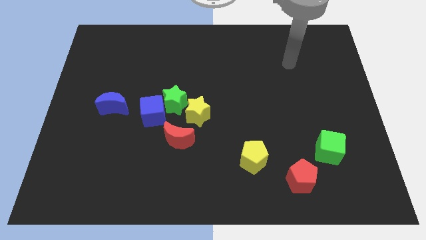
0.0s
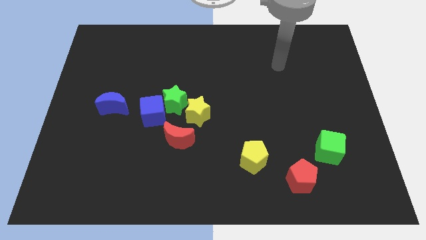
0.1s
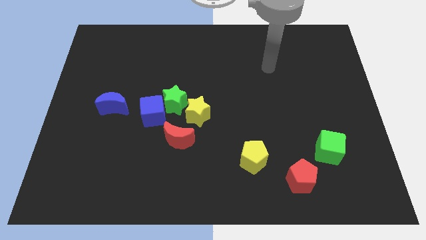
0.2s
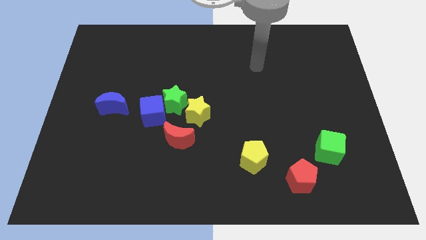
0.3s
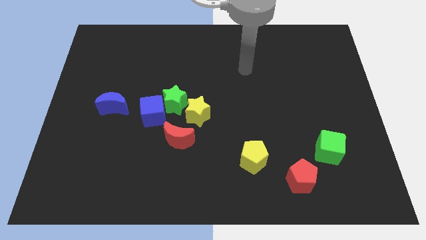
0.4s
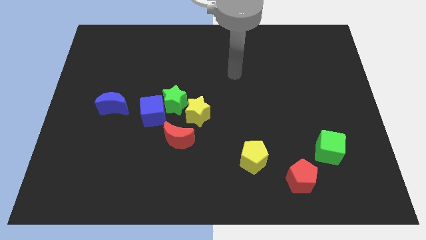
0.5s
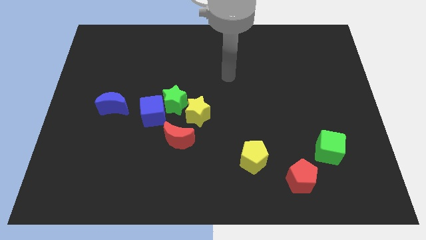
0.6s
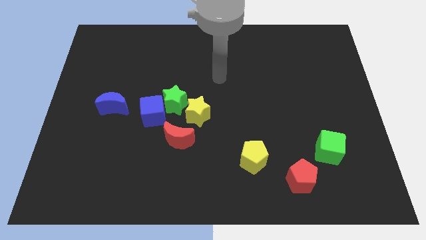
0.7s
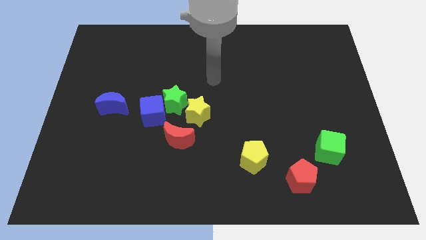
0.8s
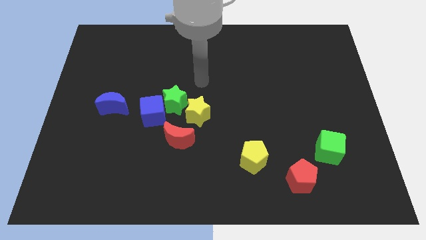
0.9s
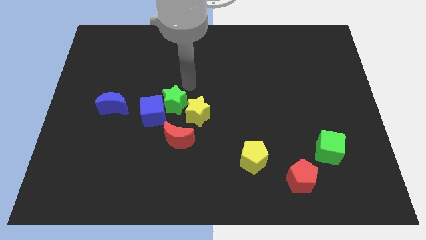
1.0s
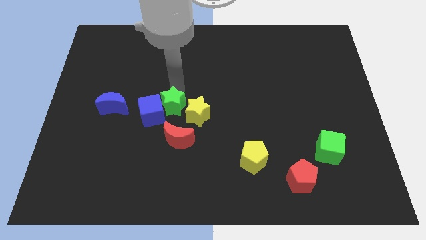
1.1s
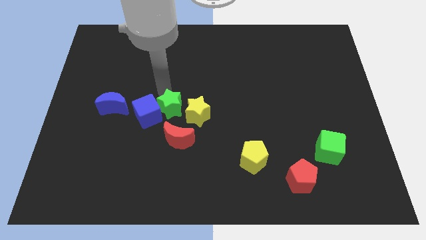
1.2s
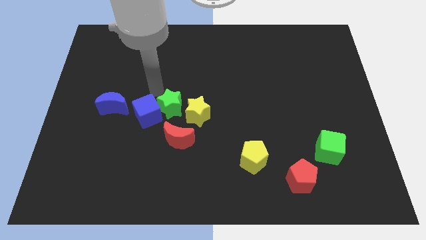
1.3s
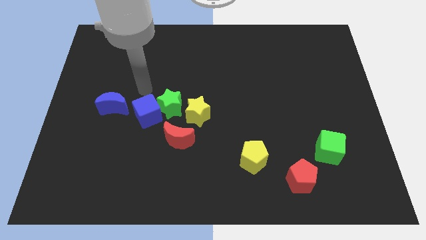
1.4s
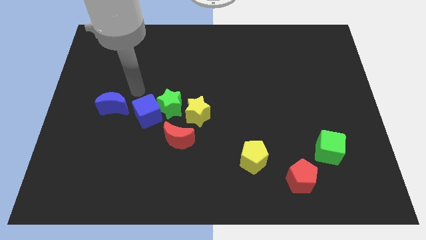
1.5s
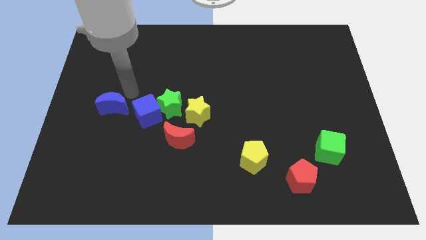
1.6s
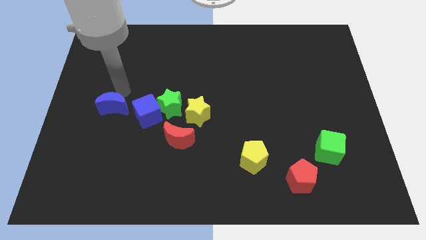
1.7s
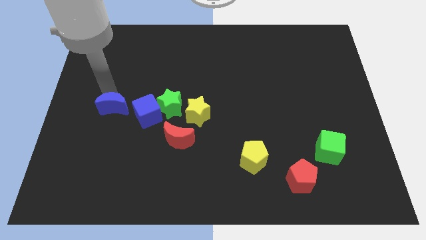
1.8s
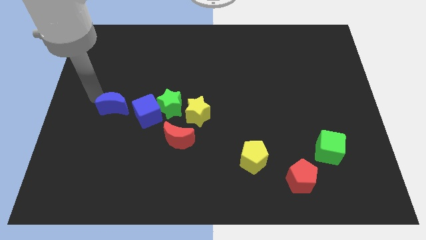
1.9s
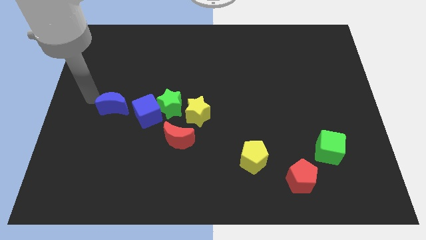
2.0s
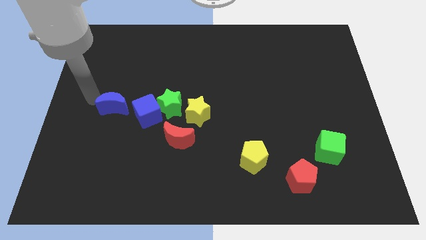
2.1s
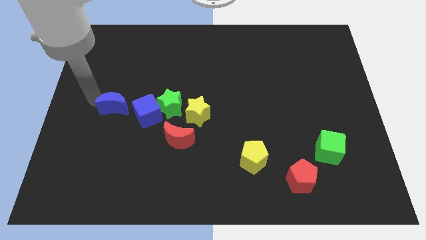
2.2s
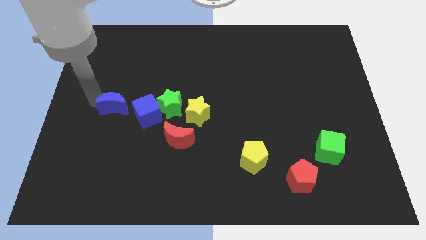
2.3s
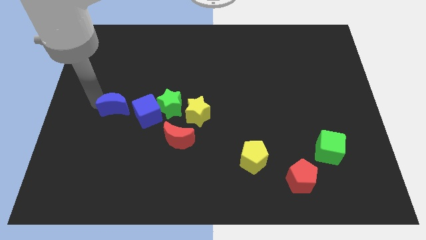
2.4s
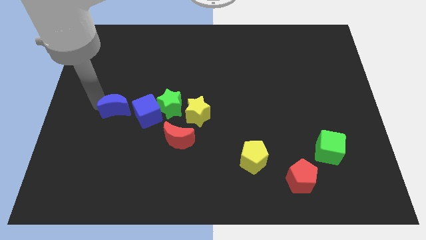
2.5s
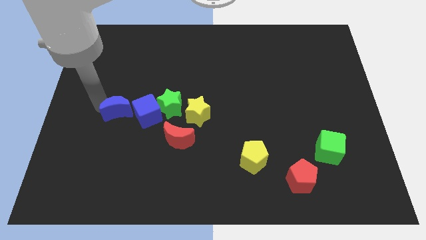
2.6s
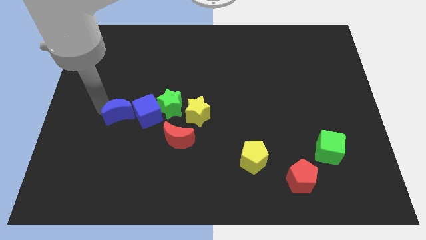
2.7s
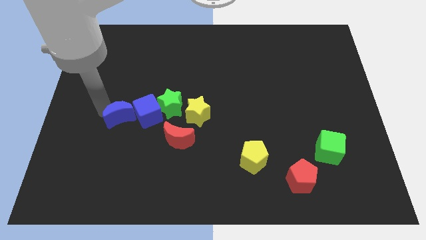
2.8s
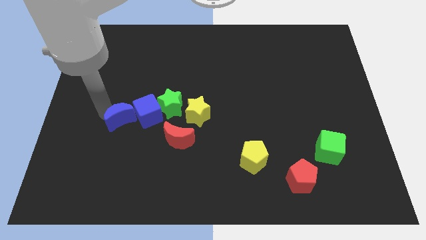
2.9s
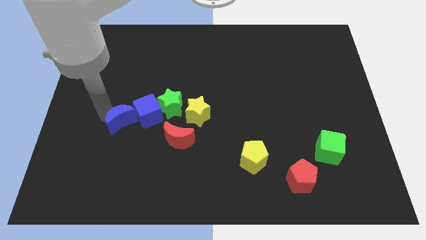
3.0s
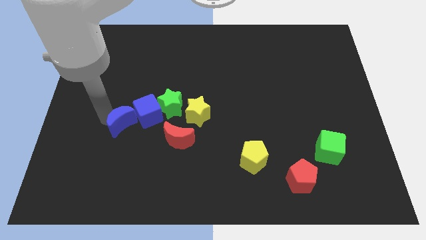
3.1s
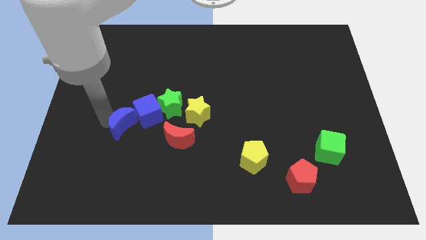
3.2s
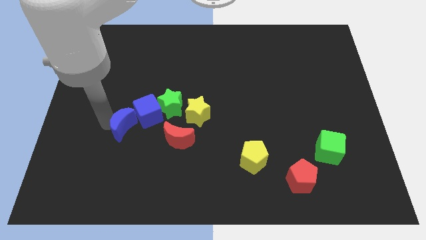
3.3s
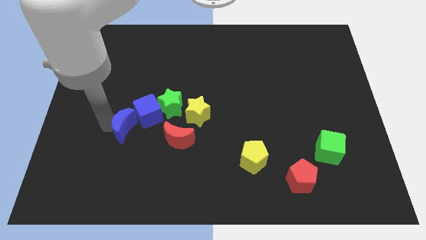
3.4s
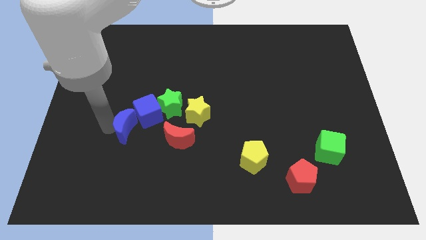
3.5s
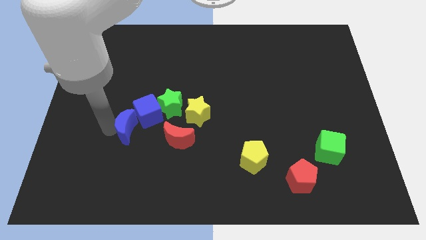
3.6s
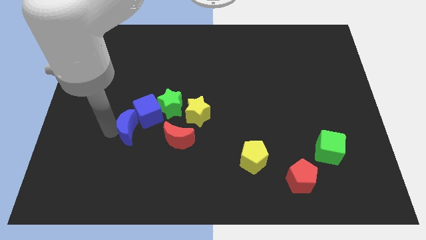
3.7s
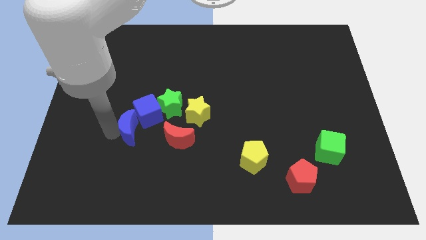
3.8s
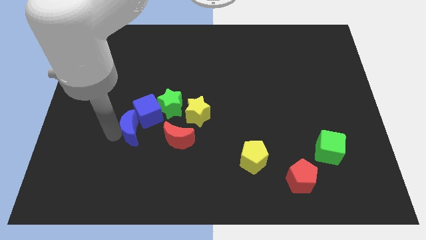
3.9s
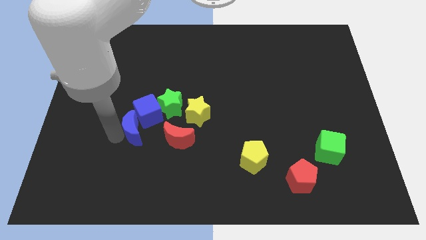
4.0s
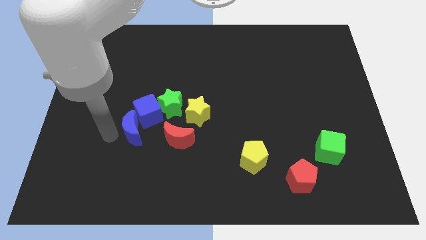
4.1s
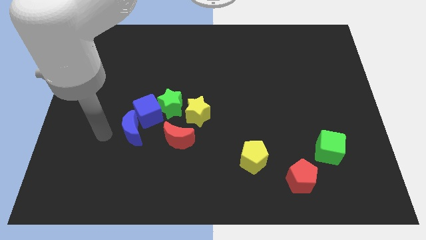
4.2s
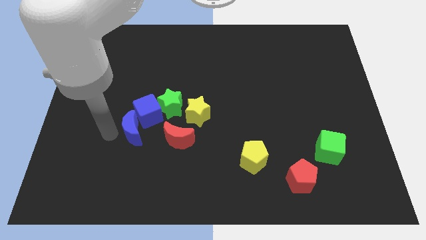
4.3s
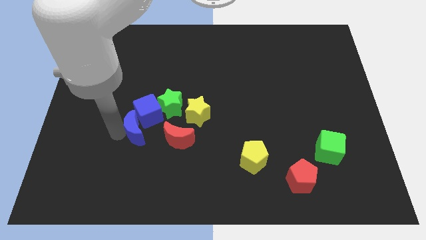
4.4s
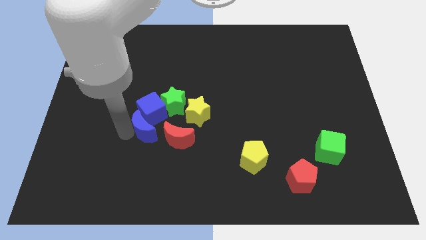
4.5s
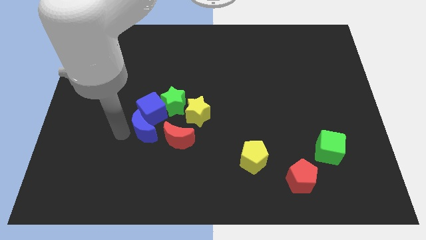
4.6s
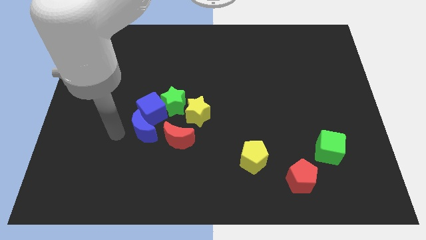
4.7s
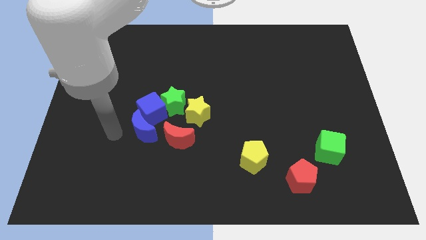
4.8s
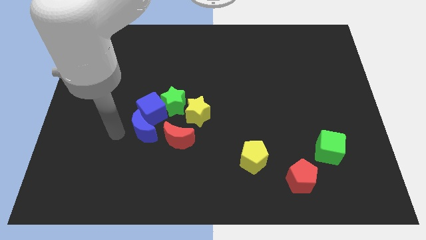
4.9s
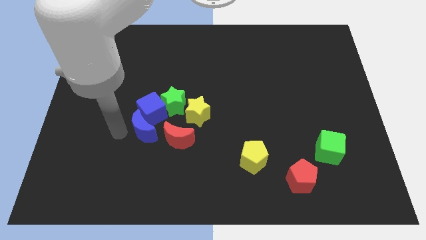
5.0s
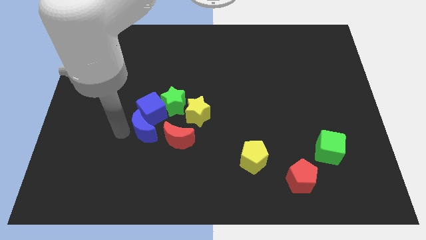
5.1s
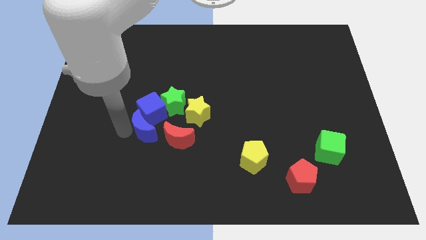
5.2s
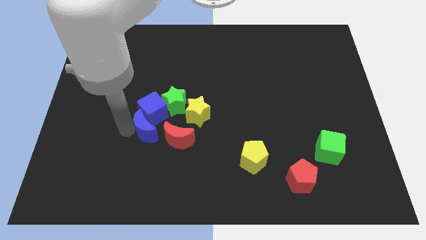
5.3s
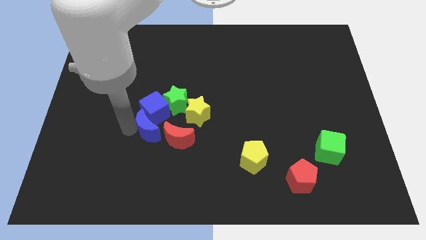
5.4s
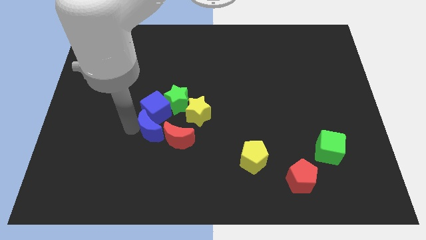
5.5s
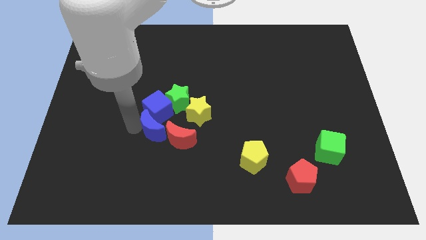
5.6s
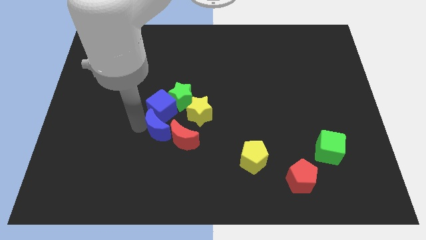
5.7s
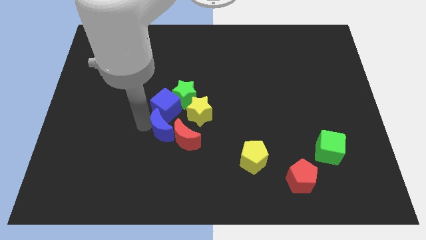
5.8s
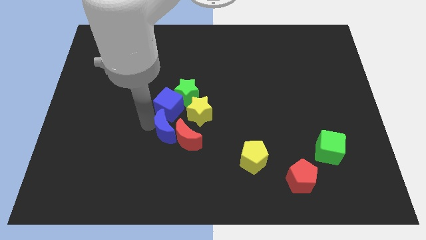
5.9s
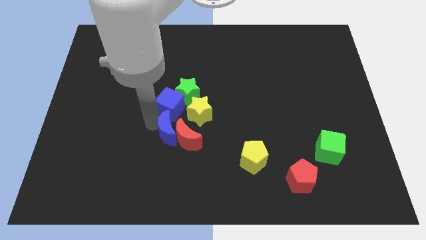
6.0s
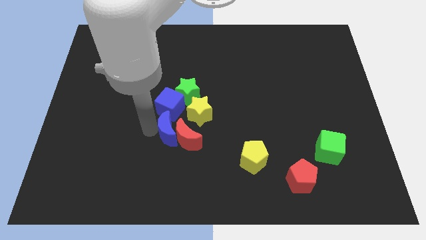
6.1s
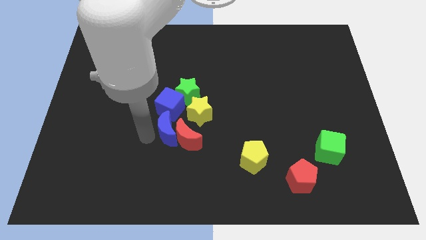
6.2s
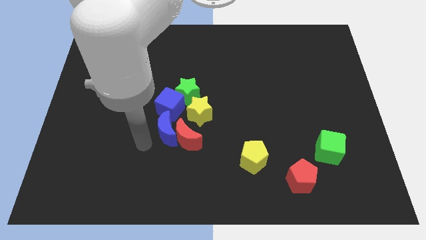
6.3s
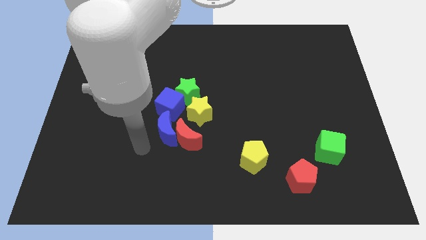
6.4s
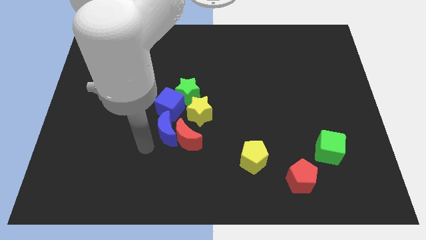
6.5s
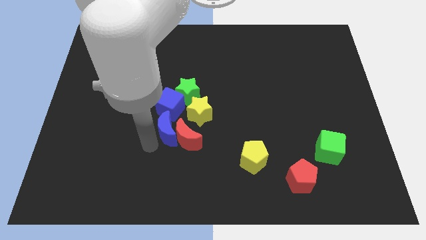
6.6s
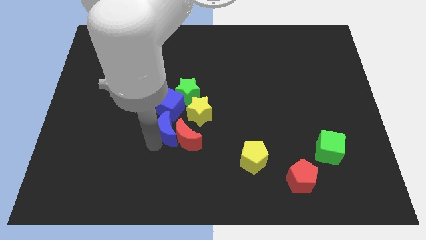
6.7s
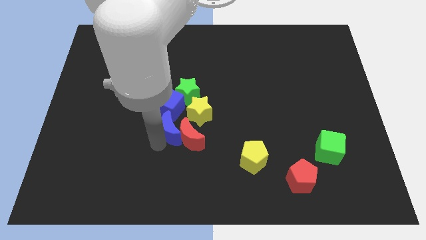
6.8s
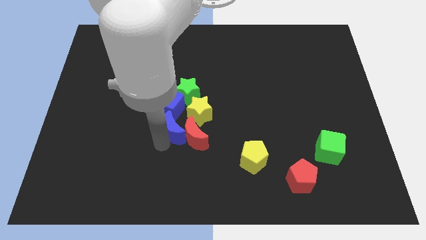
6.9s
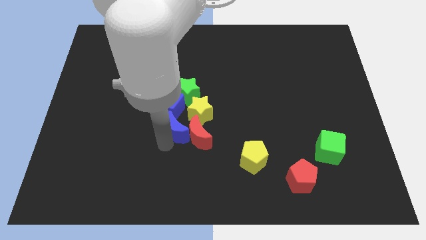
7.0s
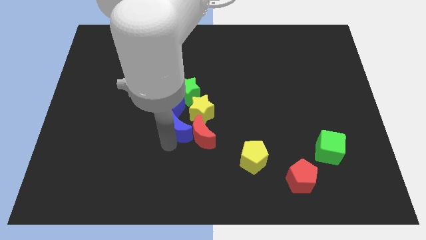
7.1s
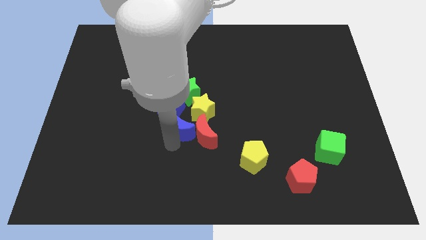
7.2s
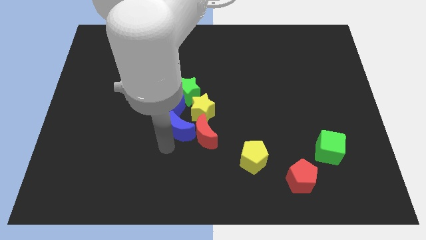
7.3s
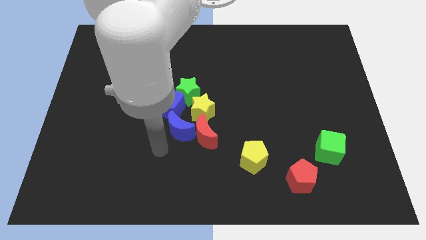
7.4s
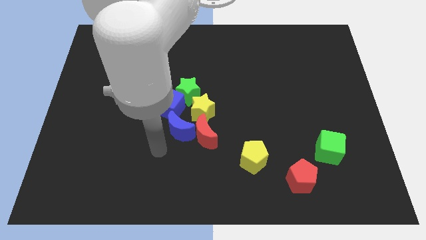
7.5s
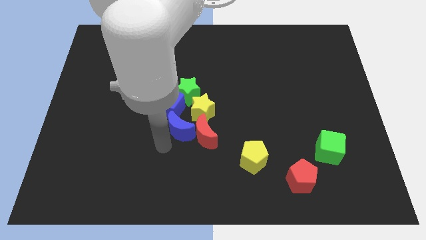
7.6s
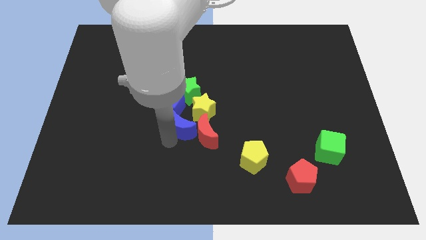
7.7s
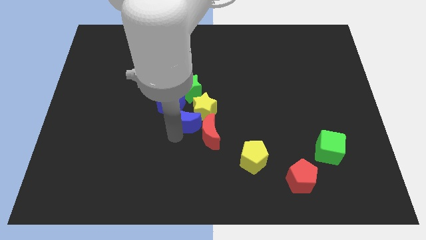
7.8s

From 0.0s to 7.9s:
put the blue moon close to the yellow star
